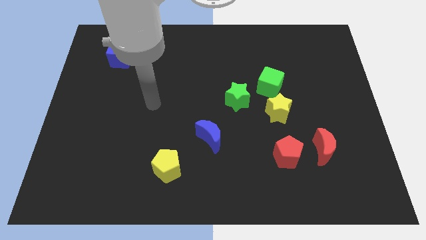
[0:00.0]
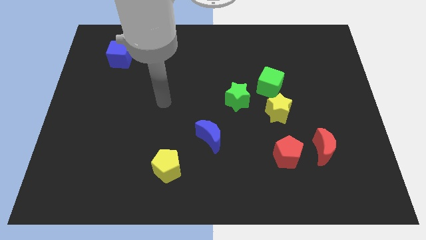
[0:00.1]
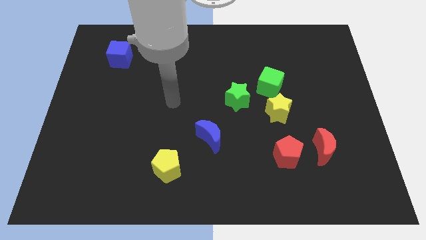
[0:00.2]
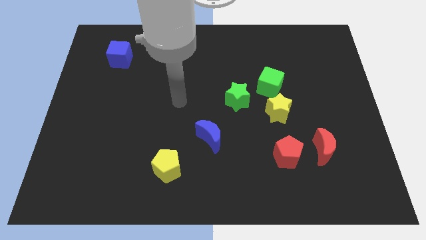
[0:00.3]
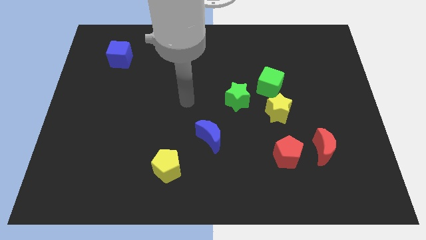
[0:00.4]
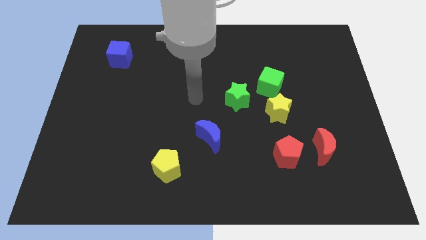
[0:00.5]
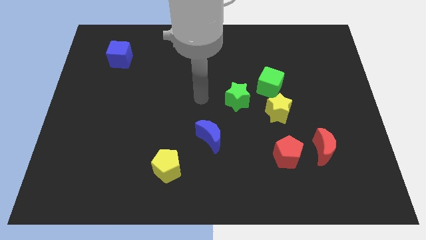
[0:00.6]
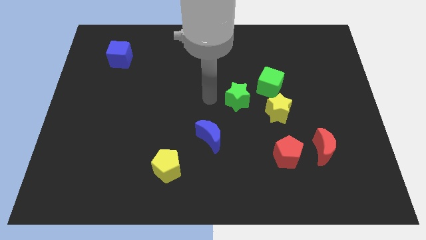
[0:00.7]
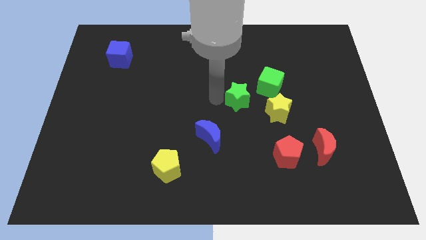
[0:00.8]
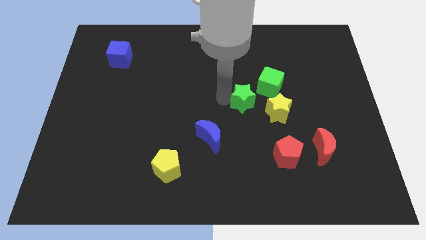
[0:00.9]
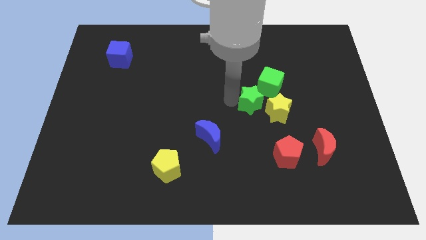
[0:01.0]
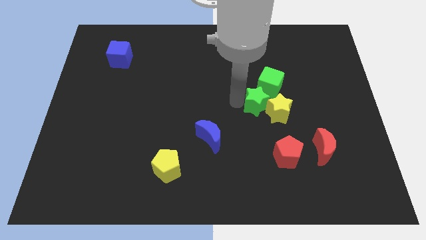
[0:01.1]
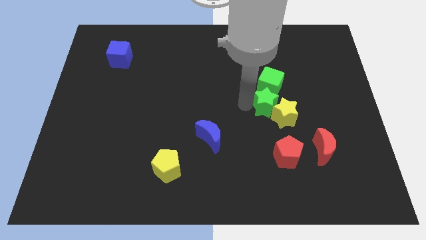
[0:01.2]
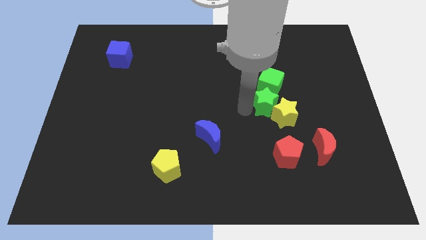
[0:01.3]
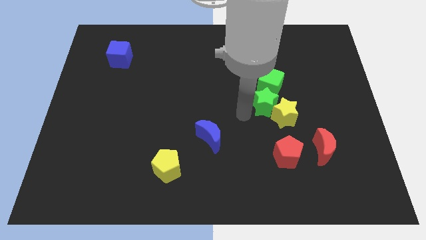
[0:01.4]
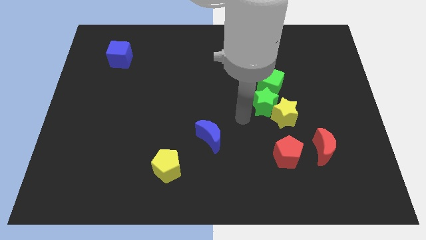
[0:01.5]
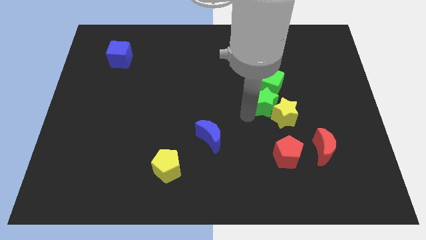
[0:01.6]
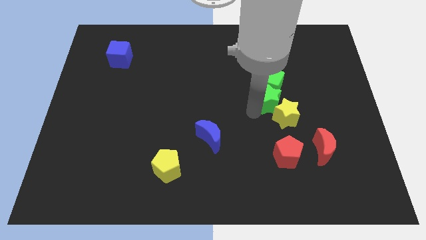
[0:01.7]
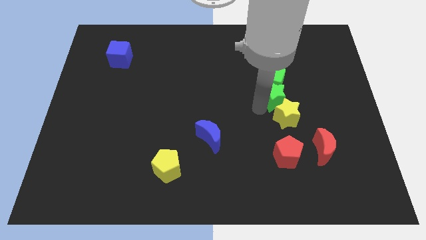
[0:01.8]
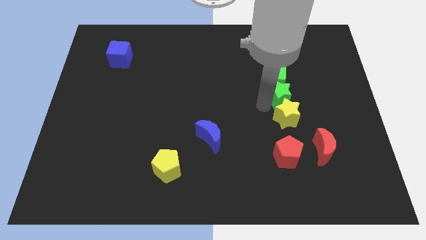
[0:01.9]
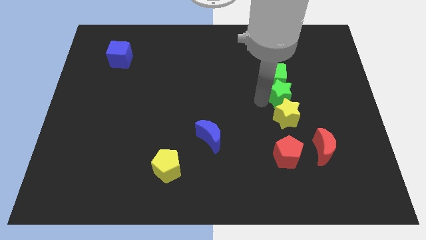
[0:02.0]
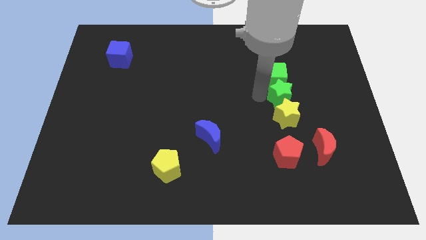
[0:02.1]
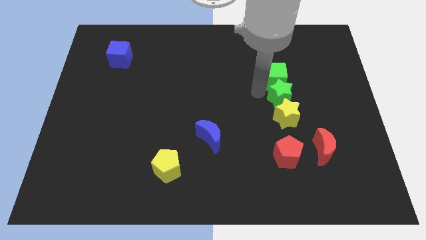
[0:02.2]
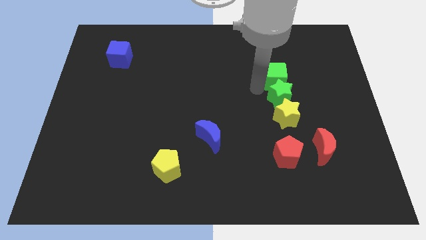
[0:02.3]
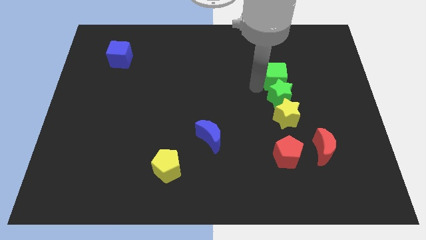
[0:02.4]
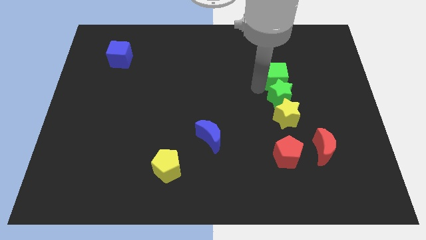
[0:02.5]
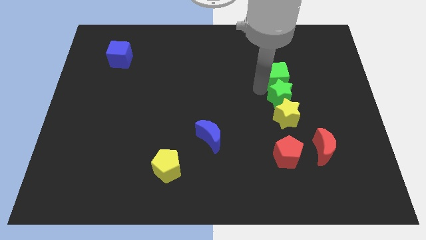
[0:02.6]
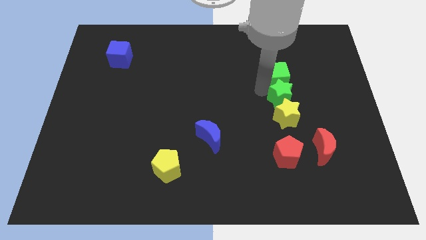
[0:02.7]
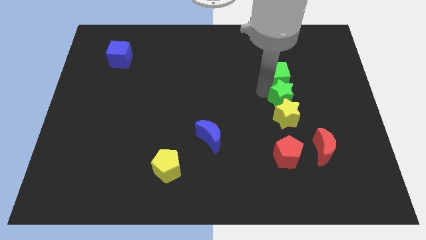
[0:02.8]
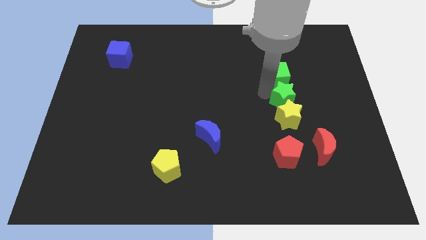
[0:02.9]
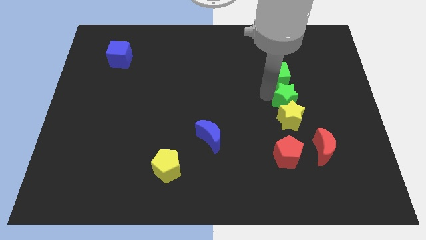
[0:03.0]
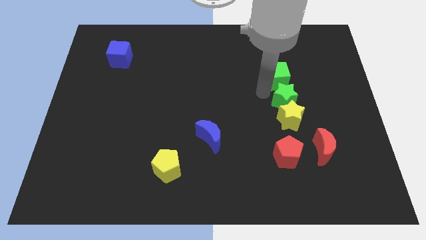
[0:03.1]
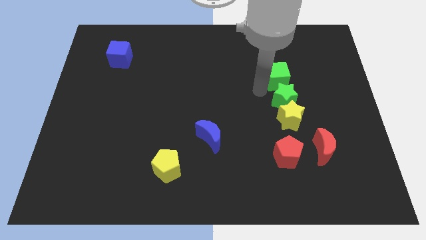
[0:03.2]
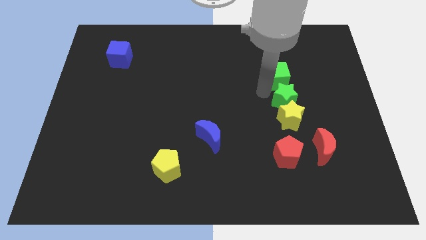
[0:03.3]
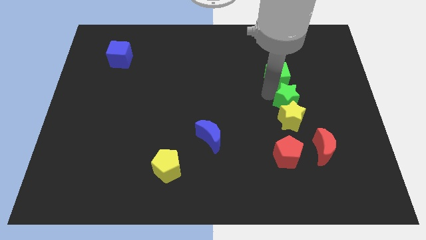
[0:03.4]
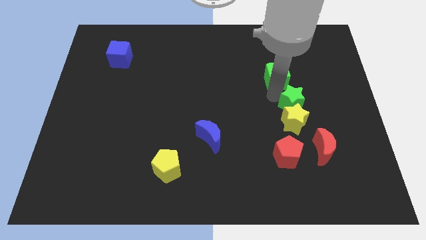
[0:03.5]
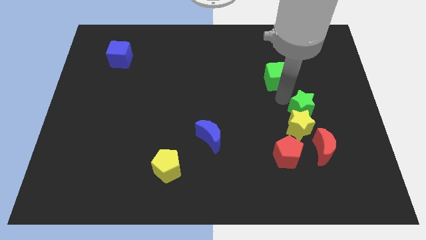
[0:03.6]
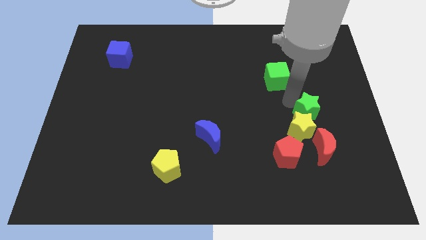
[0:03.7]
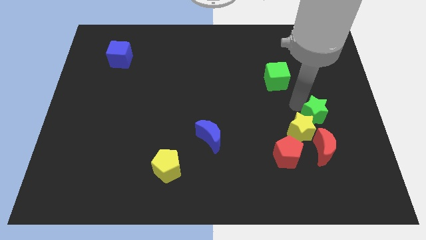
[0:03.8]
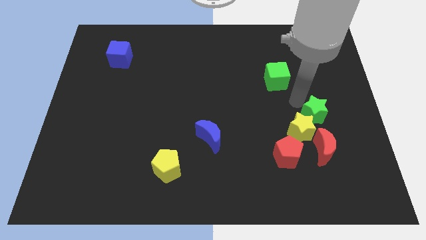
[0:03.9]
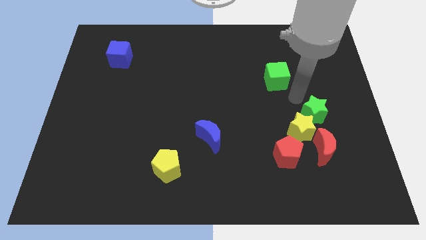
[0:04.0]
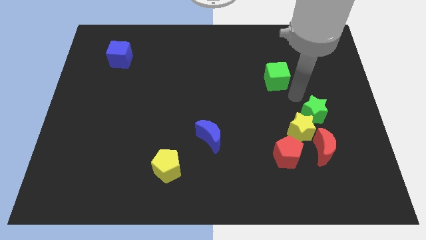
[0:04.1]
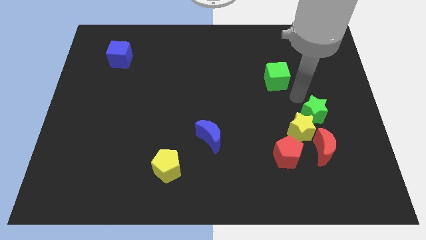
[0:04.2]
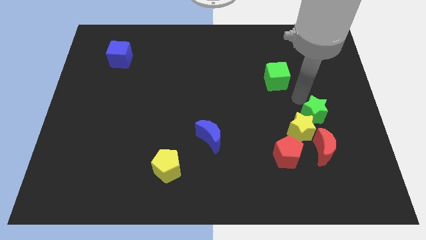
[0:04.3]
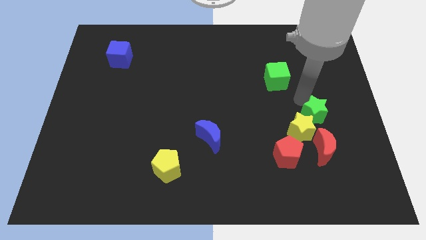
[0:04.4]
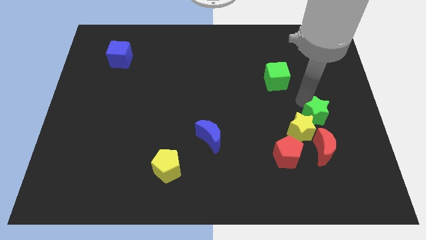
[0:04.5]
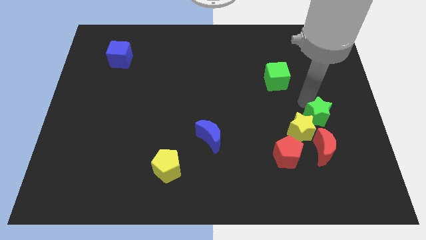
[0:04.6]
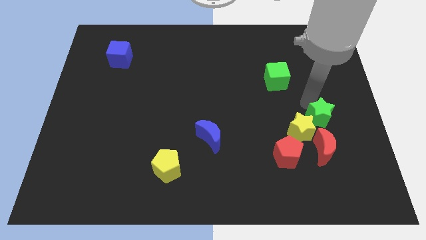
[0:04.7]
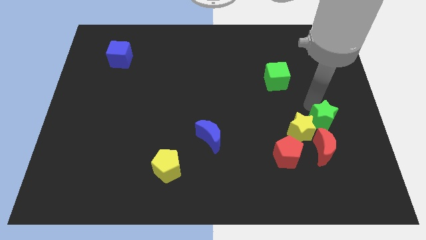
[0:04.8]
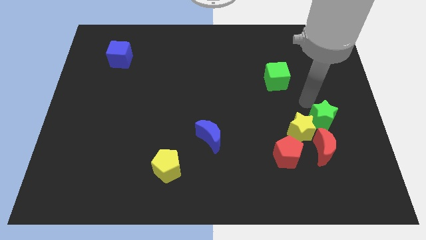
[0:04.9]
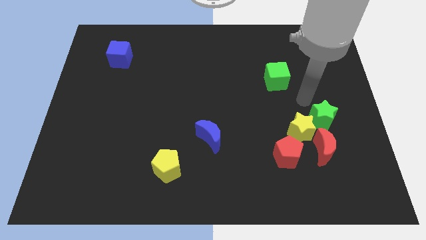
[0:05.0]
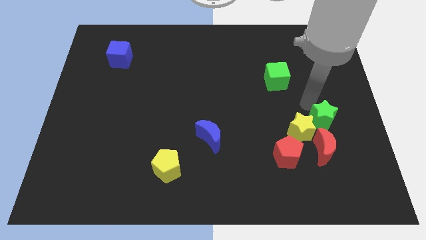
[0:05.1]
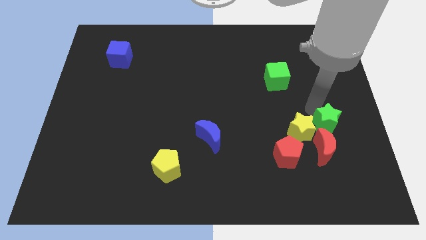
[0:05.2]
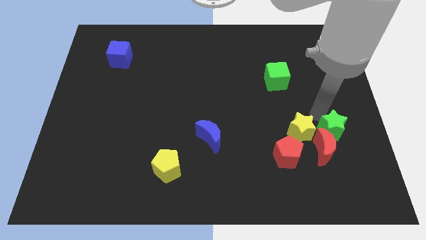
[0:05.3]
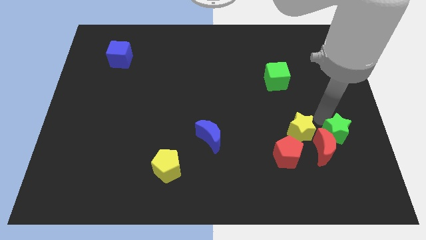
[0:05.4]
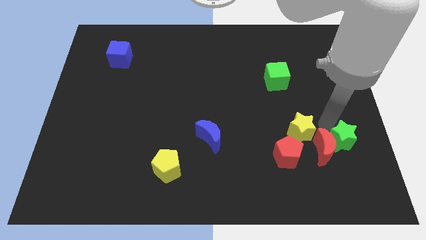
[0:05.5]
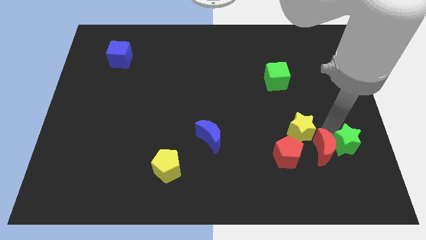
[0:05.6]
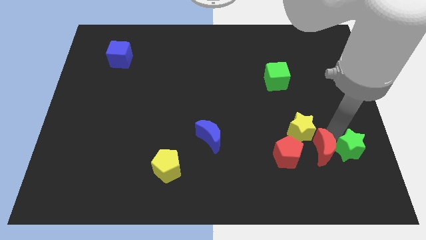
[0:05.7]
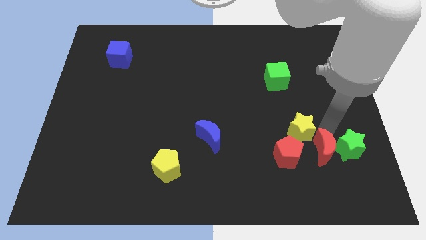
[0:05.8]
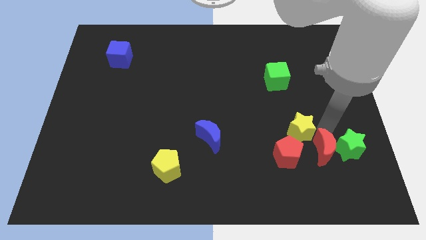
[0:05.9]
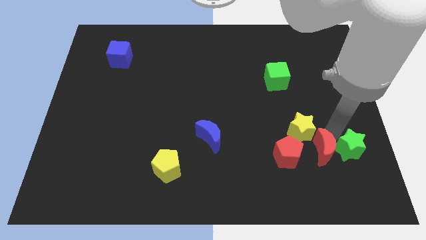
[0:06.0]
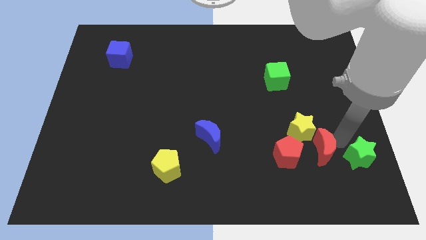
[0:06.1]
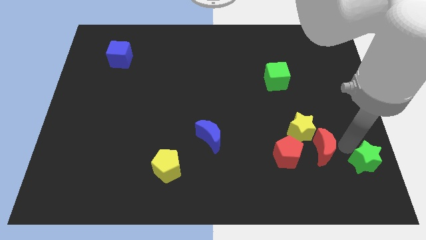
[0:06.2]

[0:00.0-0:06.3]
push the green star to the lower right corner

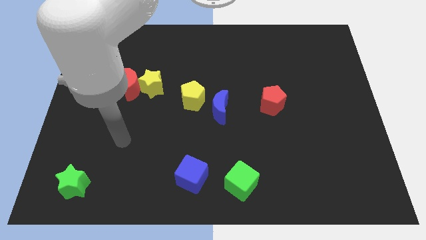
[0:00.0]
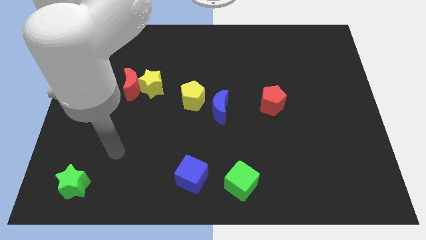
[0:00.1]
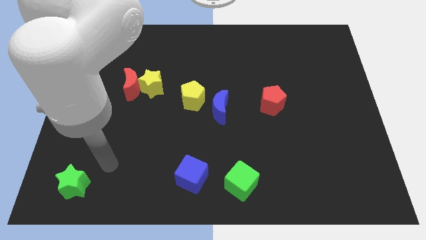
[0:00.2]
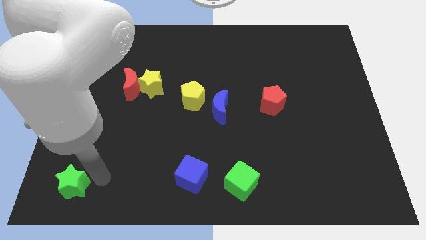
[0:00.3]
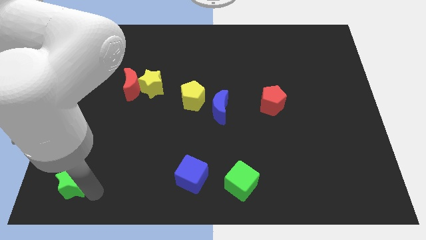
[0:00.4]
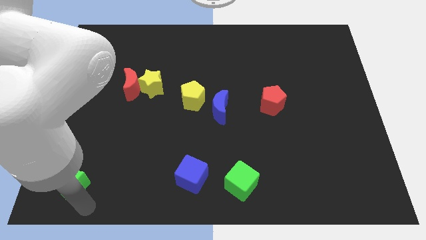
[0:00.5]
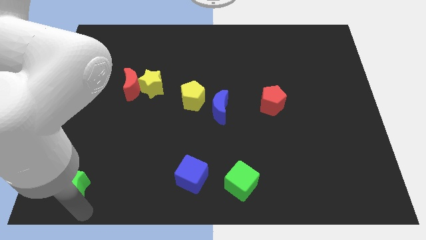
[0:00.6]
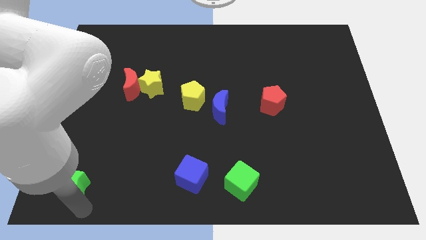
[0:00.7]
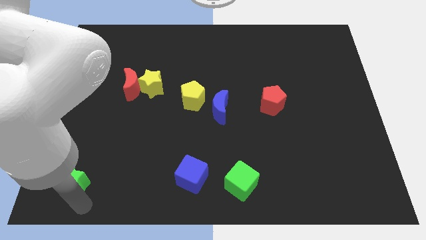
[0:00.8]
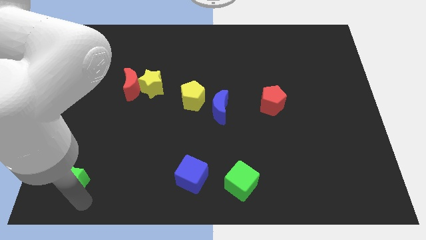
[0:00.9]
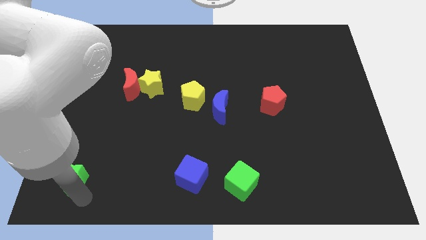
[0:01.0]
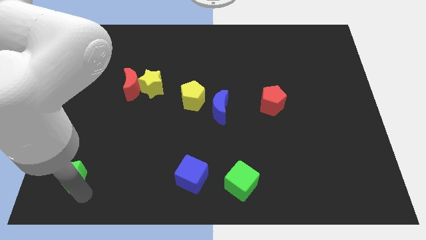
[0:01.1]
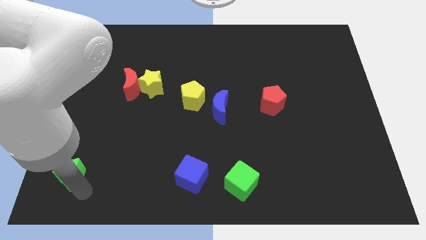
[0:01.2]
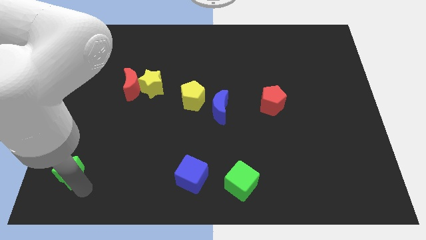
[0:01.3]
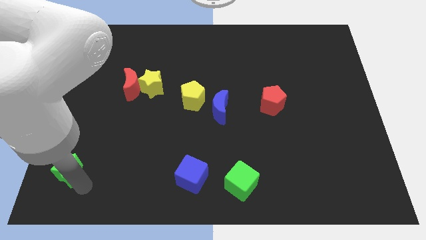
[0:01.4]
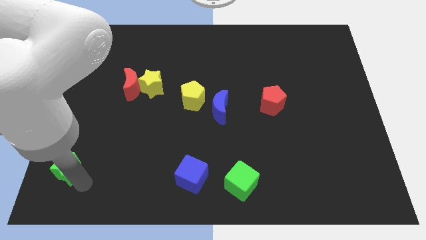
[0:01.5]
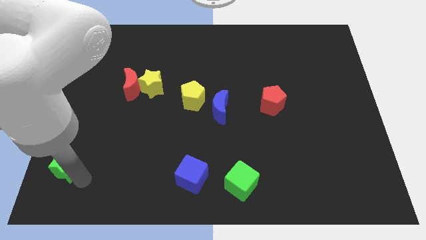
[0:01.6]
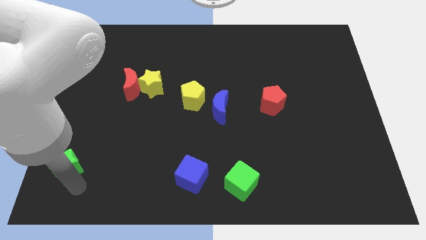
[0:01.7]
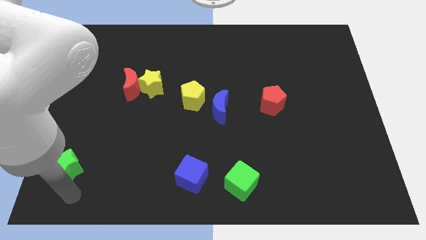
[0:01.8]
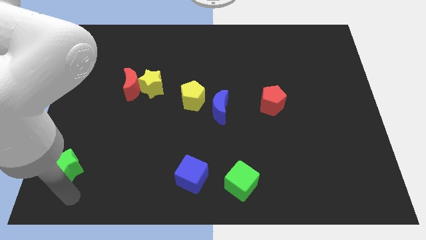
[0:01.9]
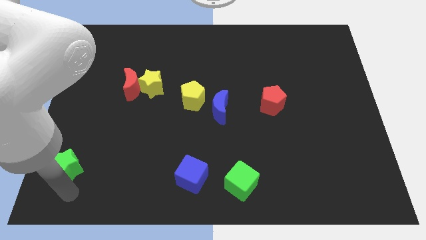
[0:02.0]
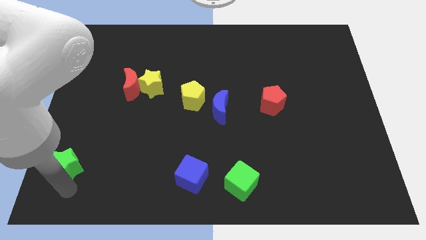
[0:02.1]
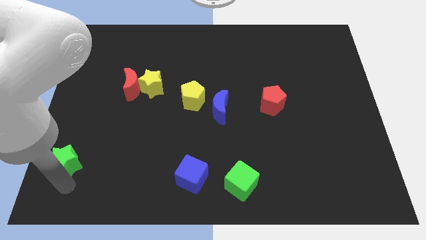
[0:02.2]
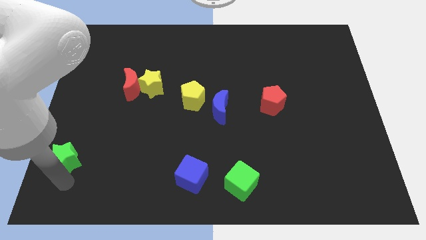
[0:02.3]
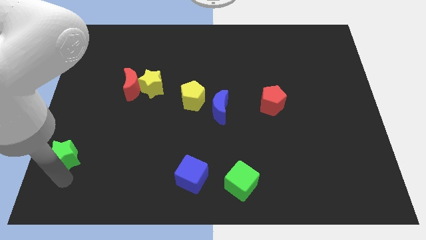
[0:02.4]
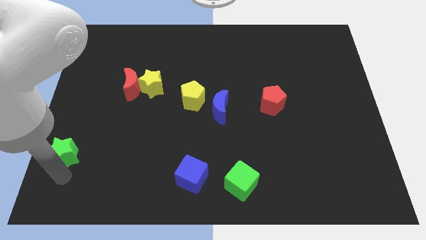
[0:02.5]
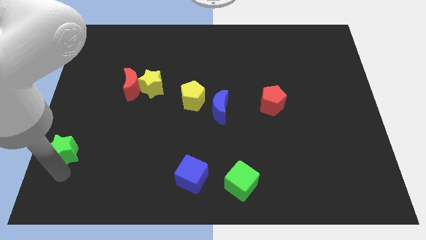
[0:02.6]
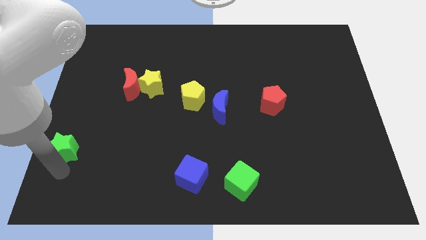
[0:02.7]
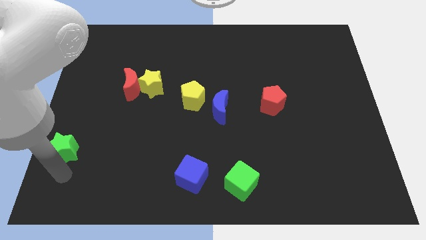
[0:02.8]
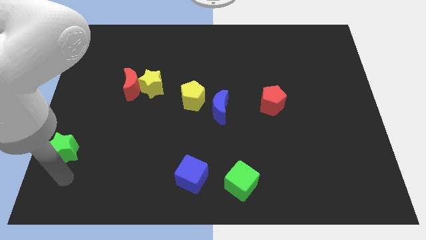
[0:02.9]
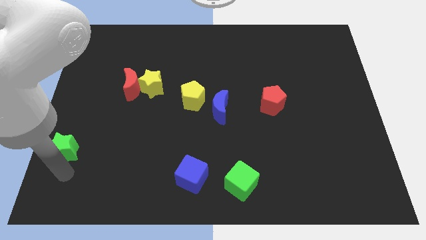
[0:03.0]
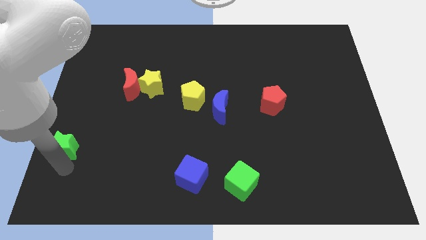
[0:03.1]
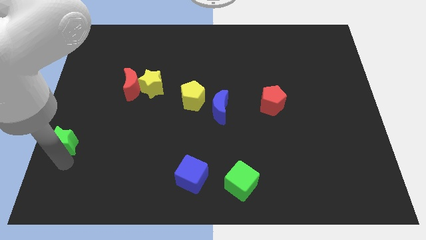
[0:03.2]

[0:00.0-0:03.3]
slide the green star to the left side
